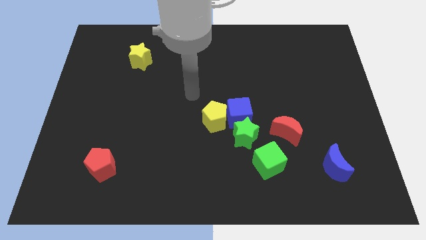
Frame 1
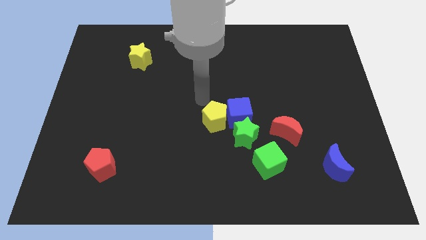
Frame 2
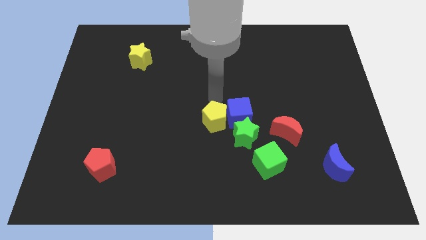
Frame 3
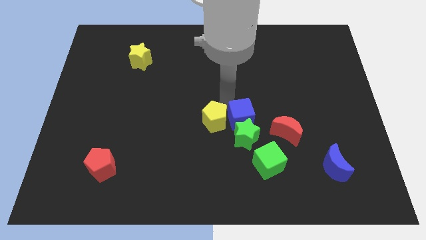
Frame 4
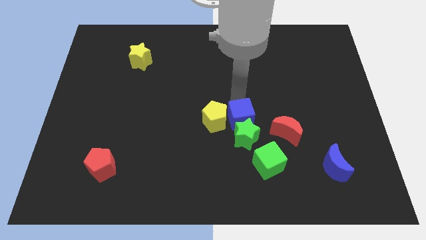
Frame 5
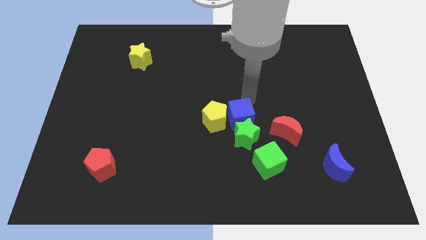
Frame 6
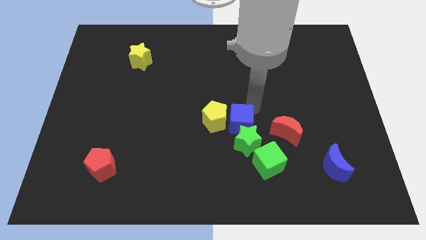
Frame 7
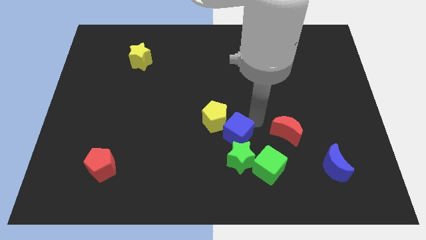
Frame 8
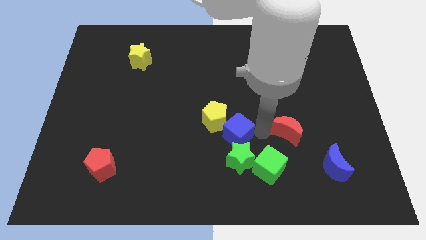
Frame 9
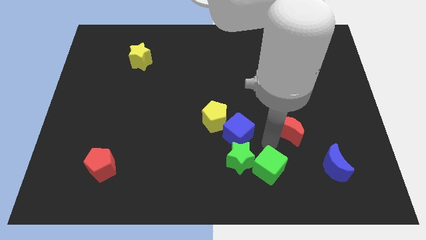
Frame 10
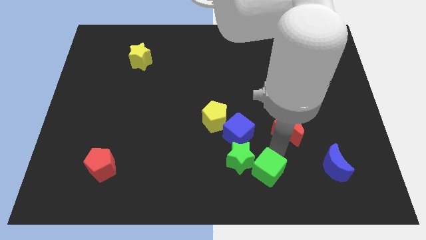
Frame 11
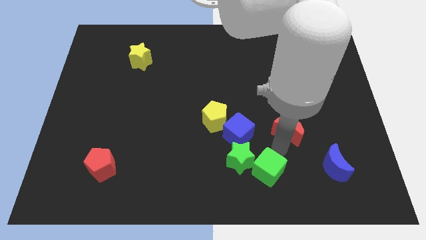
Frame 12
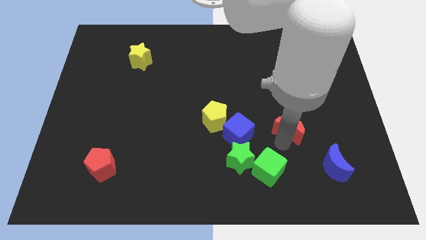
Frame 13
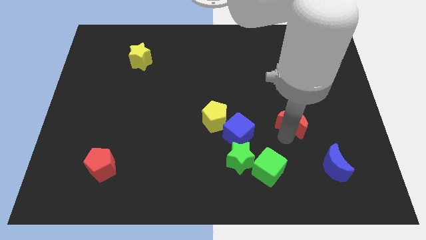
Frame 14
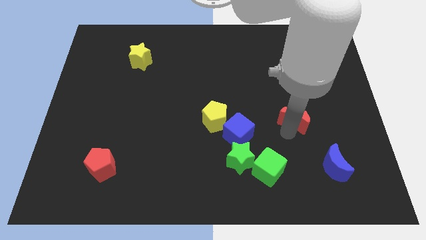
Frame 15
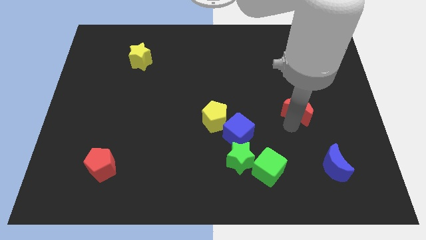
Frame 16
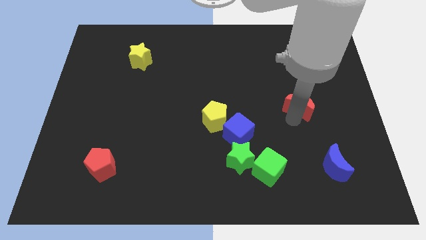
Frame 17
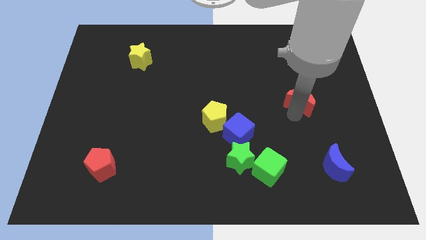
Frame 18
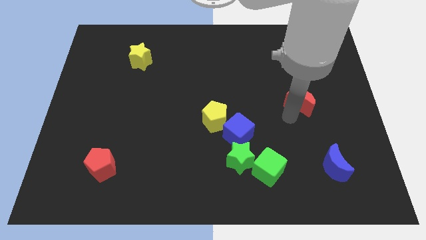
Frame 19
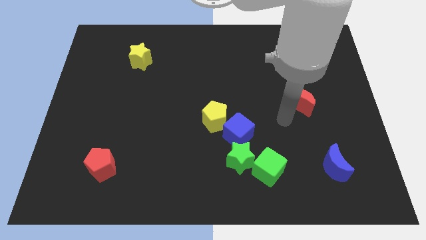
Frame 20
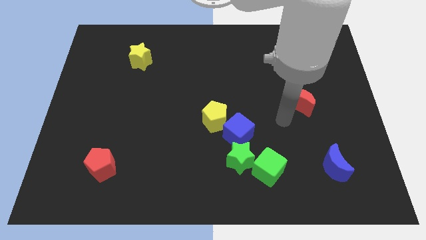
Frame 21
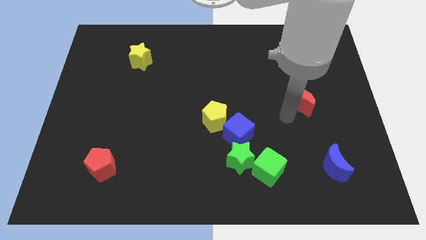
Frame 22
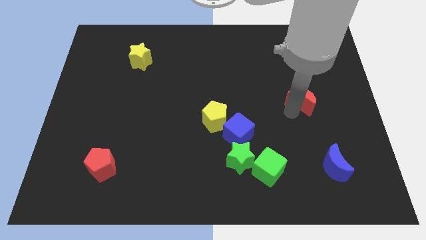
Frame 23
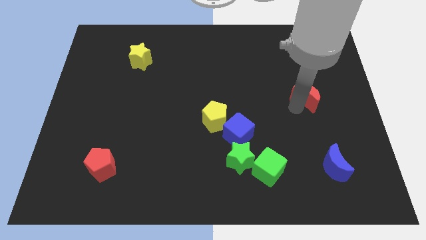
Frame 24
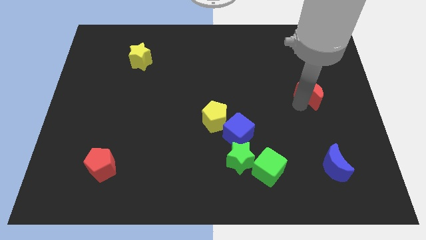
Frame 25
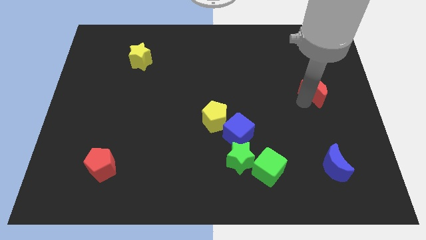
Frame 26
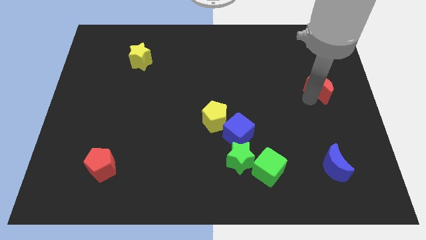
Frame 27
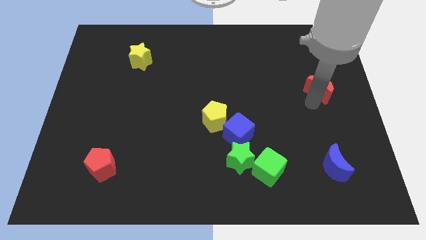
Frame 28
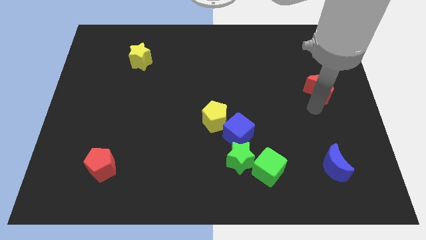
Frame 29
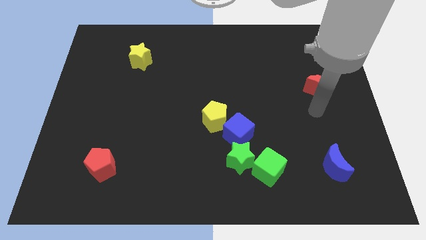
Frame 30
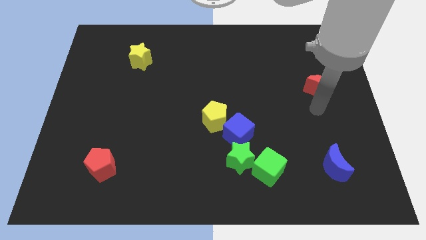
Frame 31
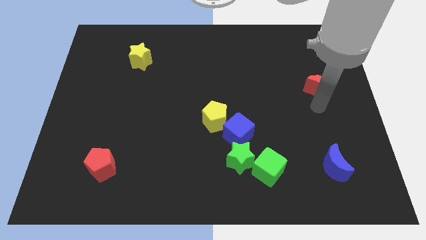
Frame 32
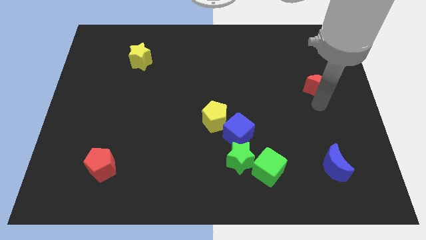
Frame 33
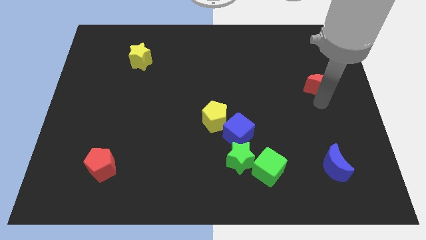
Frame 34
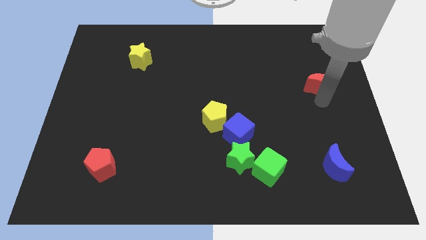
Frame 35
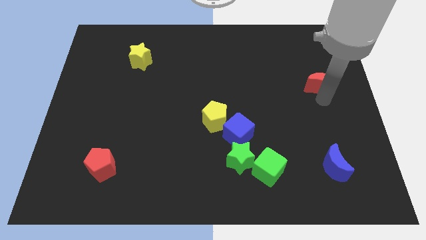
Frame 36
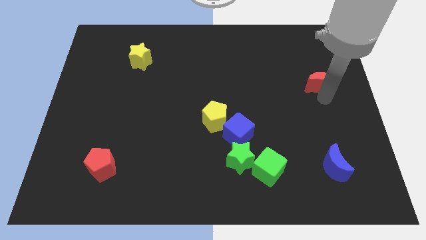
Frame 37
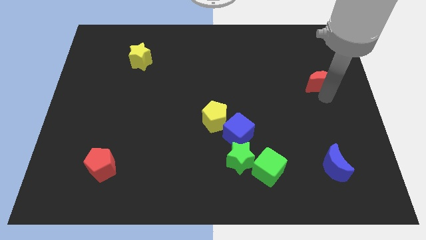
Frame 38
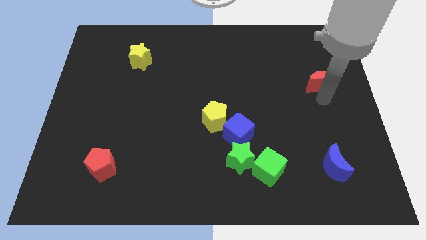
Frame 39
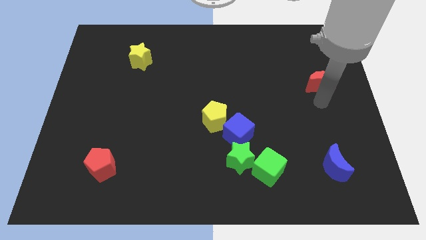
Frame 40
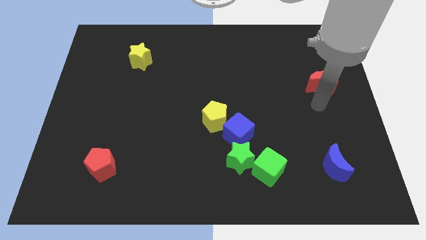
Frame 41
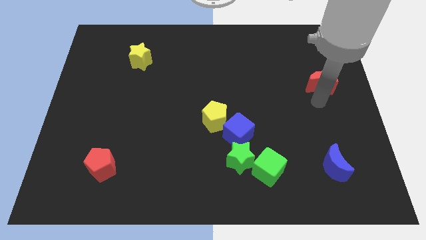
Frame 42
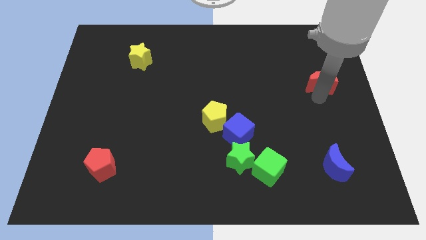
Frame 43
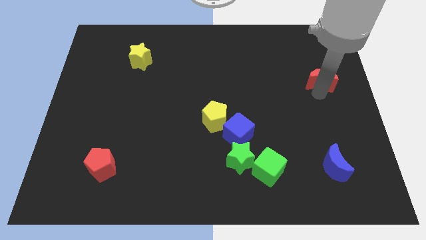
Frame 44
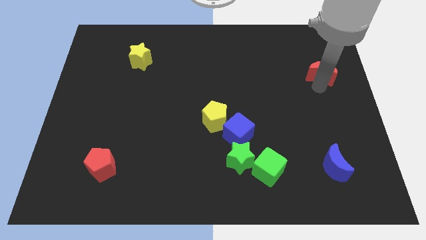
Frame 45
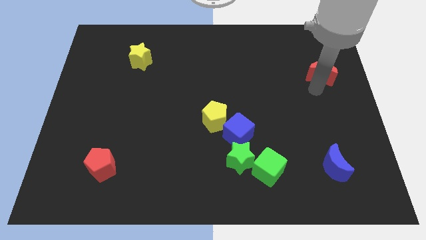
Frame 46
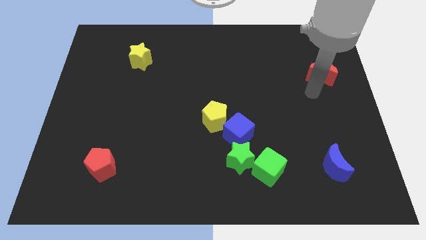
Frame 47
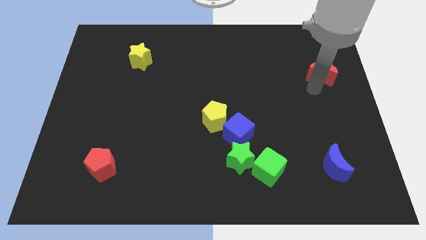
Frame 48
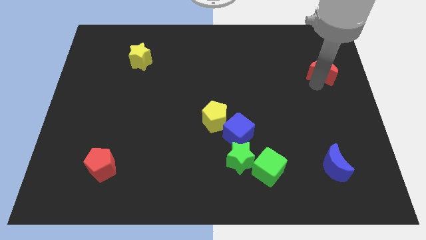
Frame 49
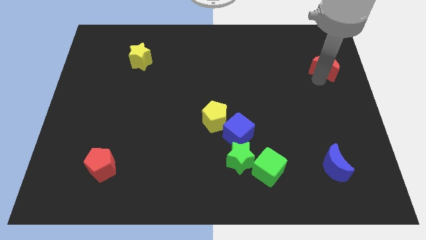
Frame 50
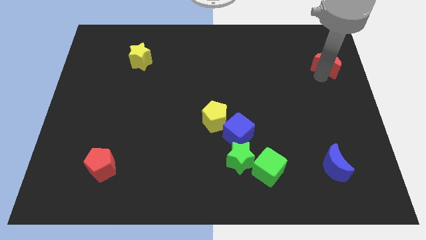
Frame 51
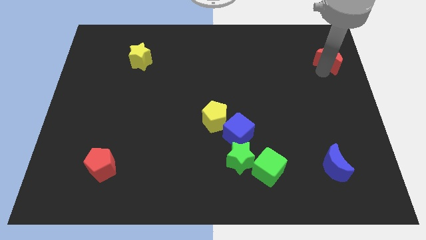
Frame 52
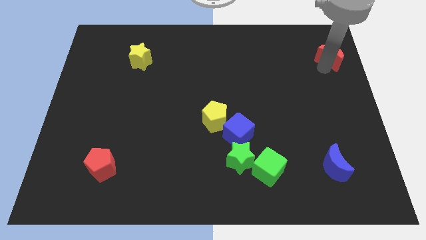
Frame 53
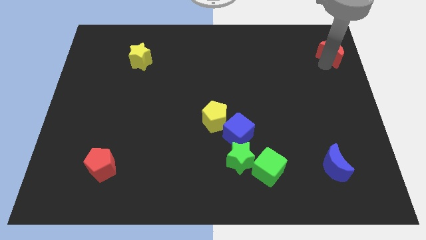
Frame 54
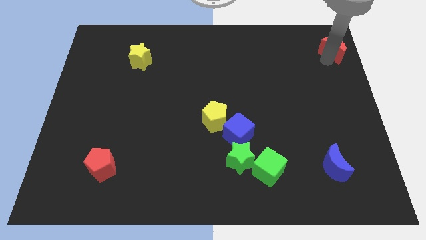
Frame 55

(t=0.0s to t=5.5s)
move the red moon to the top right corner

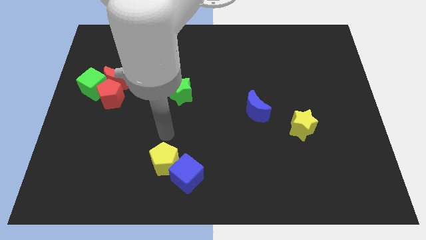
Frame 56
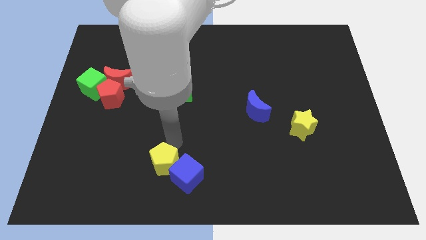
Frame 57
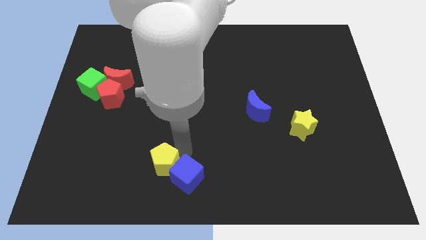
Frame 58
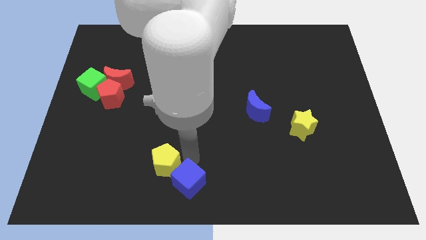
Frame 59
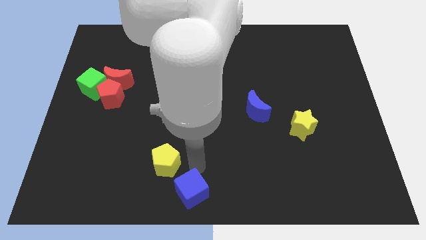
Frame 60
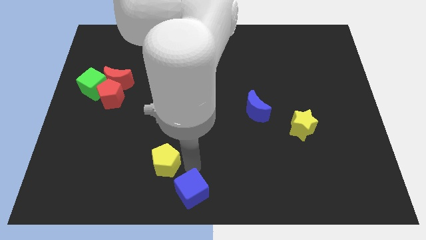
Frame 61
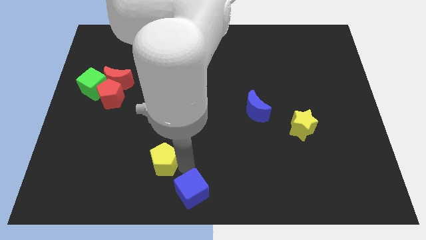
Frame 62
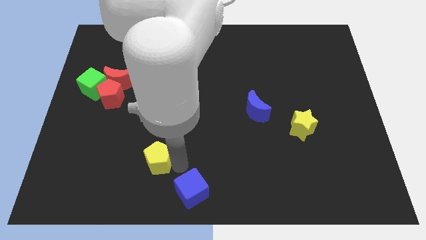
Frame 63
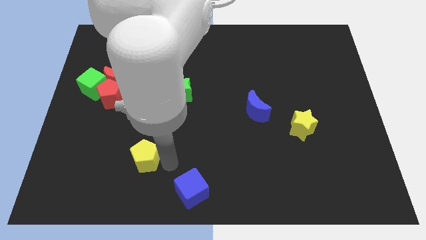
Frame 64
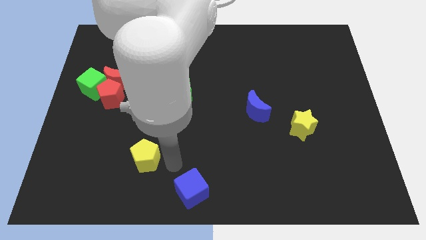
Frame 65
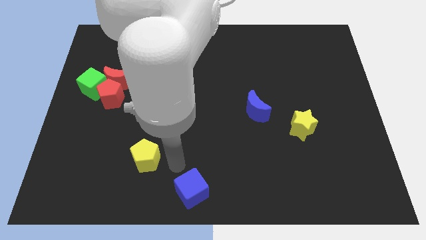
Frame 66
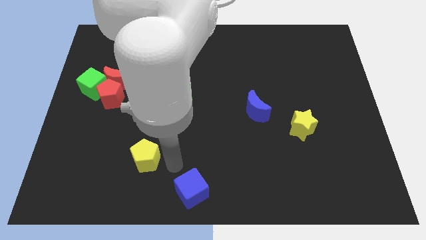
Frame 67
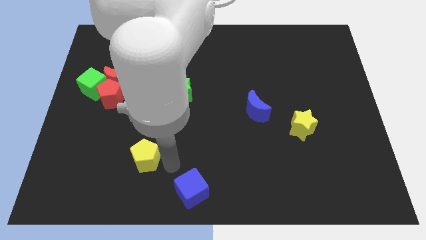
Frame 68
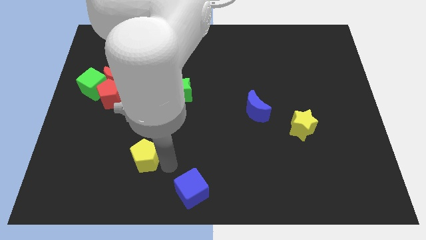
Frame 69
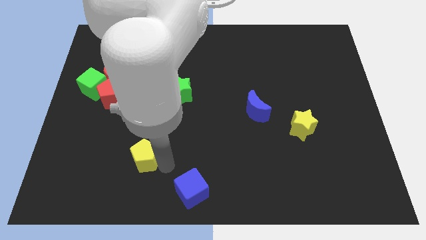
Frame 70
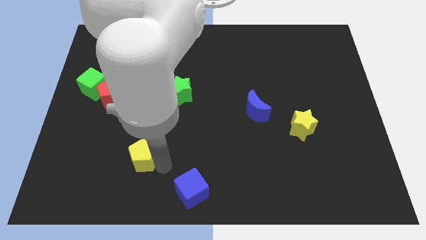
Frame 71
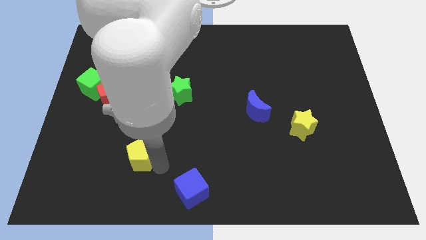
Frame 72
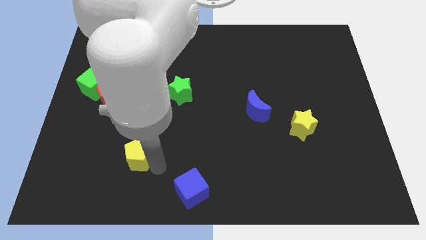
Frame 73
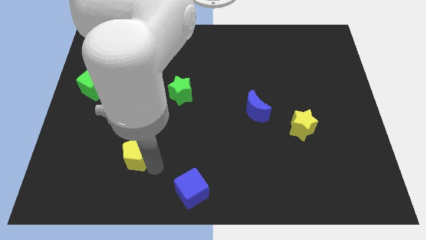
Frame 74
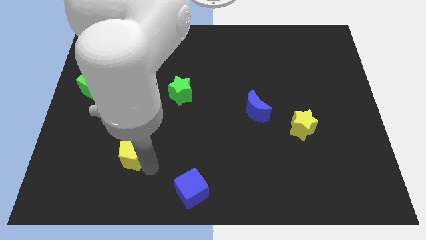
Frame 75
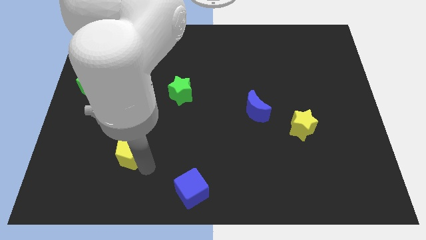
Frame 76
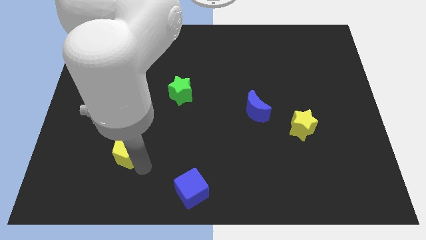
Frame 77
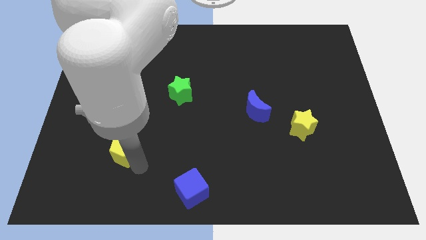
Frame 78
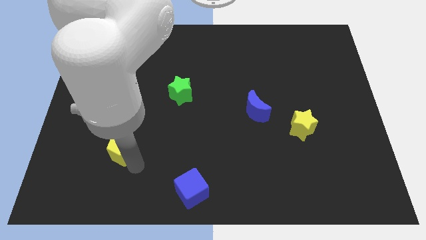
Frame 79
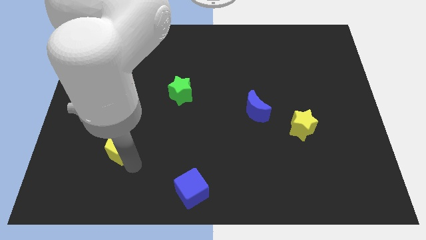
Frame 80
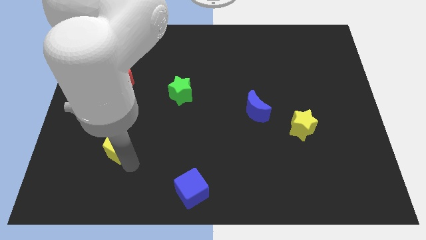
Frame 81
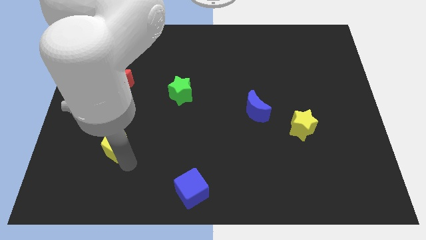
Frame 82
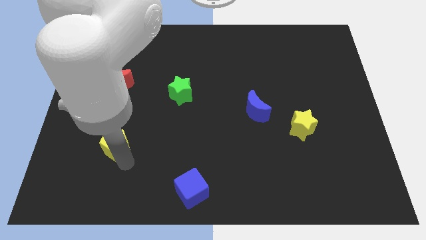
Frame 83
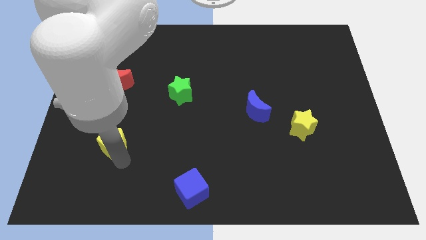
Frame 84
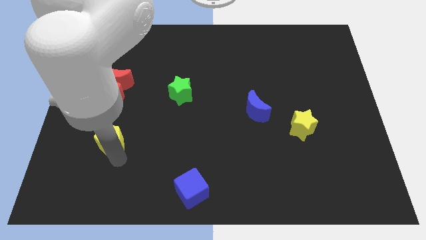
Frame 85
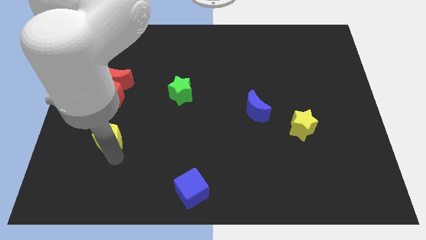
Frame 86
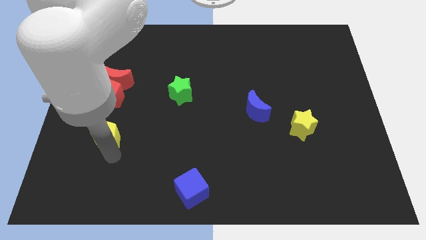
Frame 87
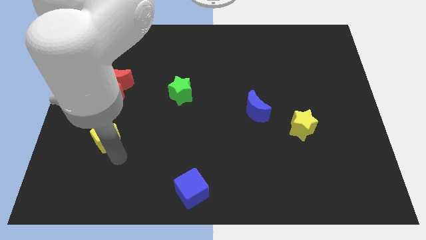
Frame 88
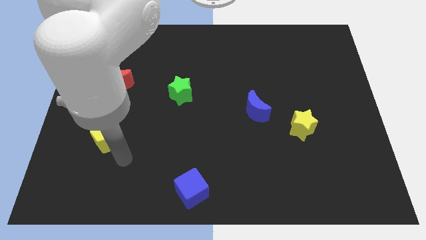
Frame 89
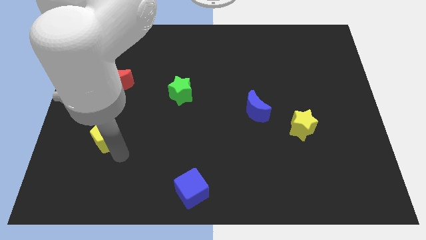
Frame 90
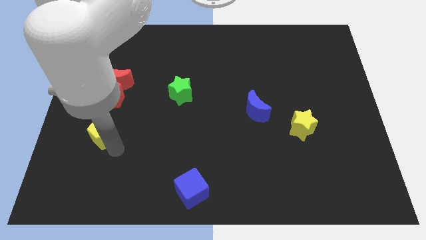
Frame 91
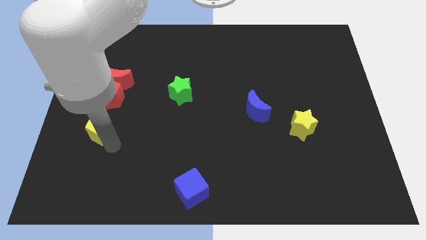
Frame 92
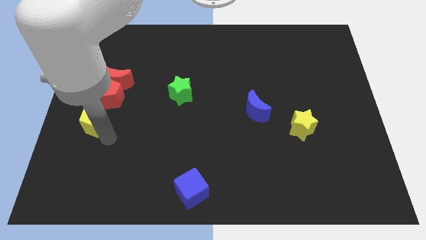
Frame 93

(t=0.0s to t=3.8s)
push the yellow pentagon to the left side of the board
